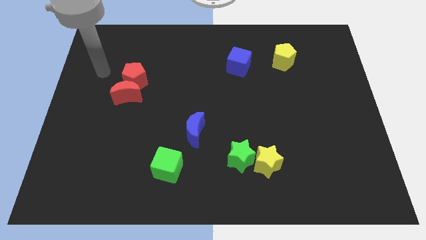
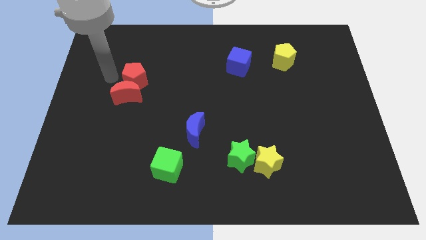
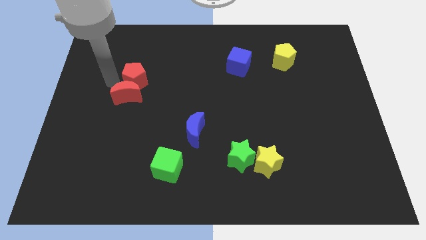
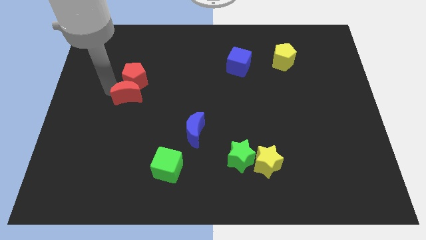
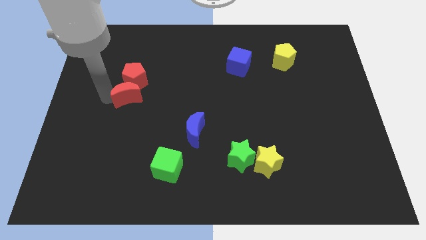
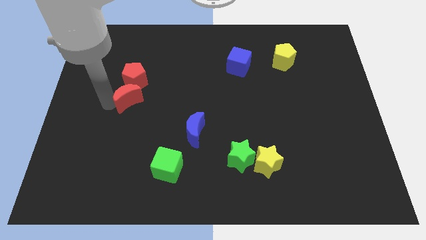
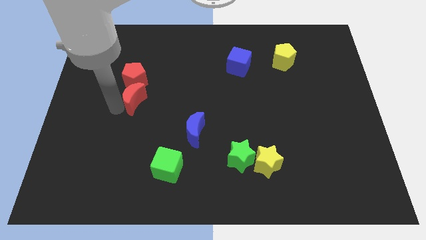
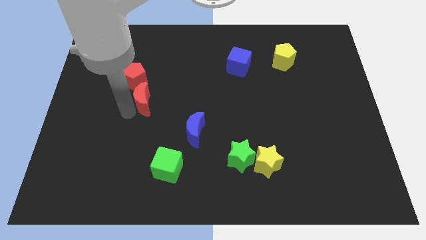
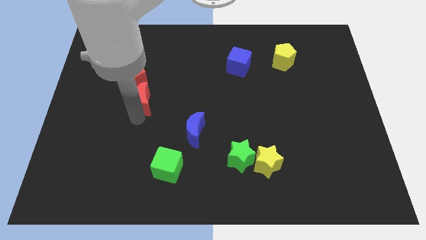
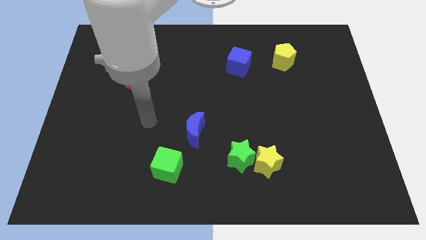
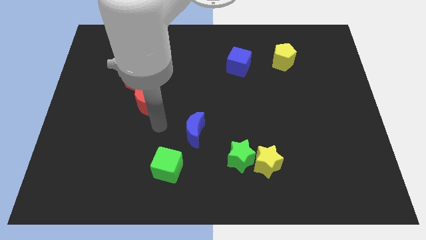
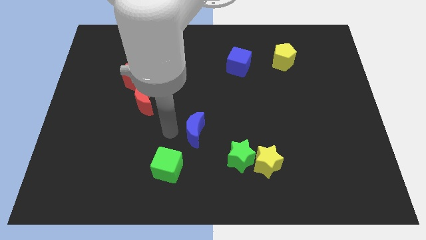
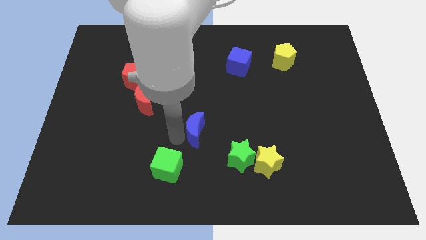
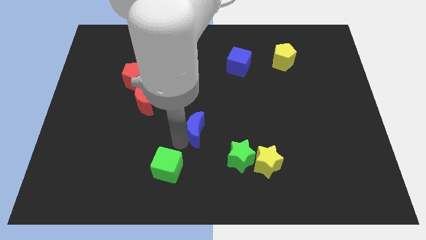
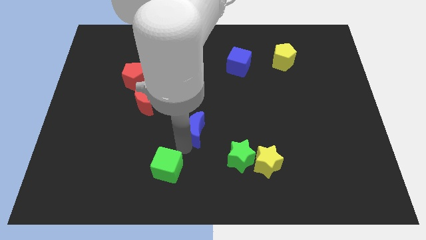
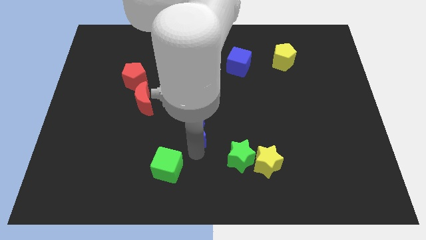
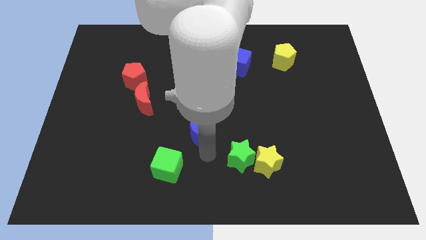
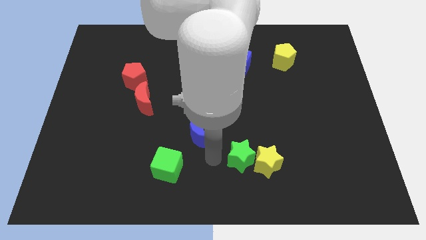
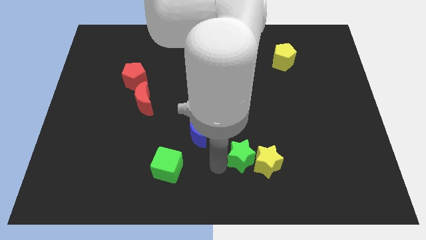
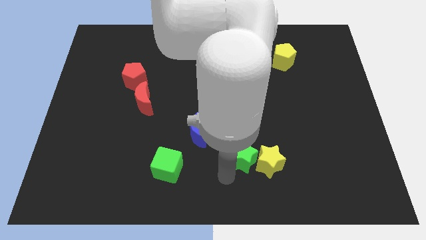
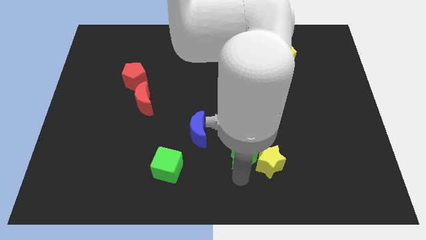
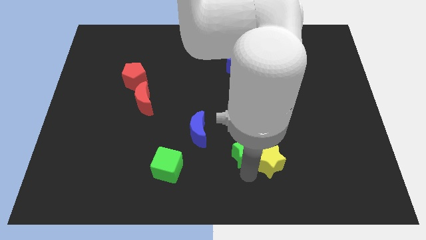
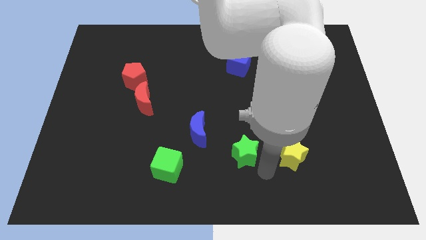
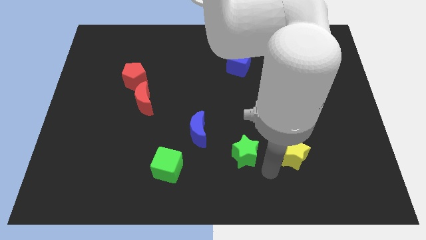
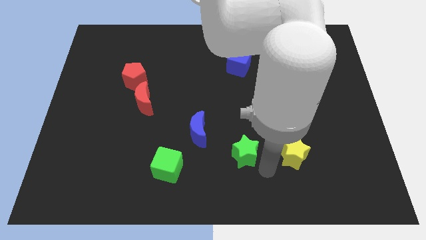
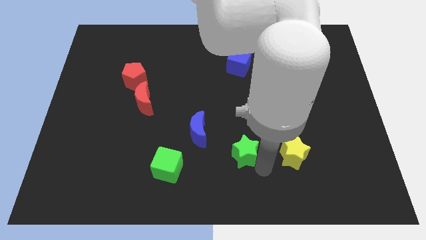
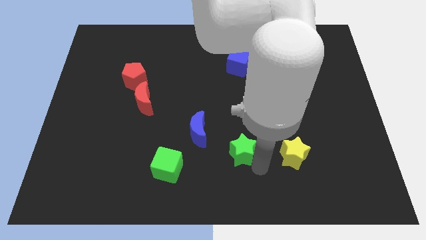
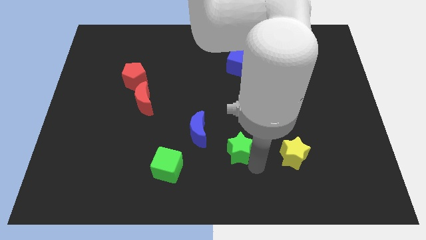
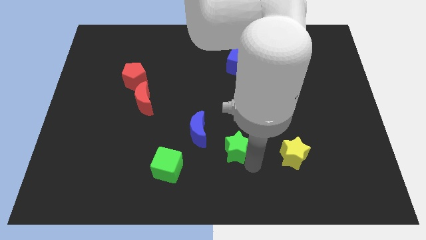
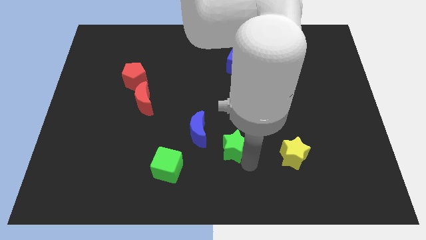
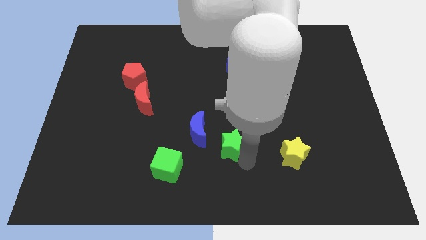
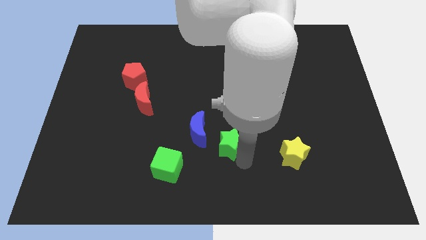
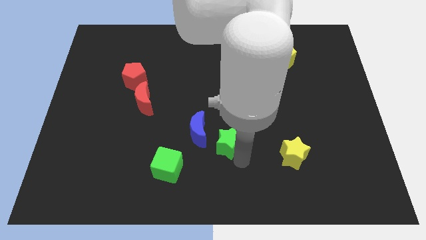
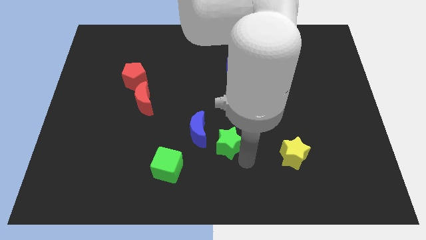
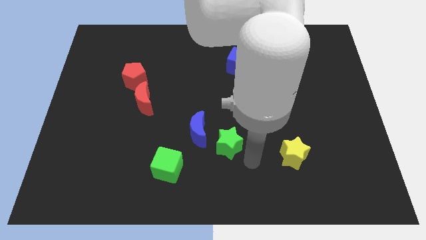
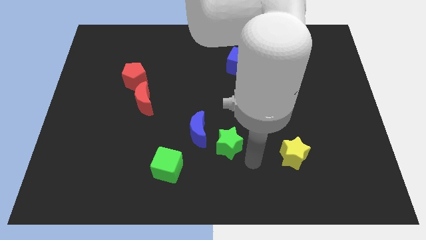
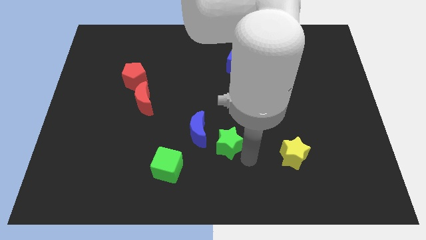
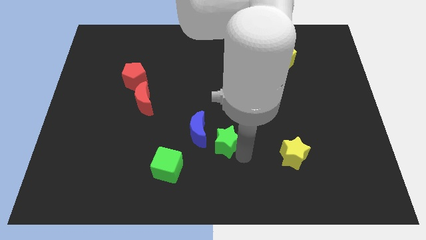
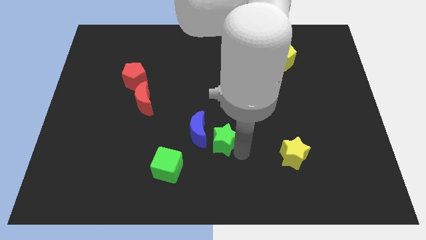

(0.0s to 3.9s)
slide the green star close to the blue moon

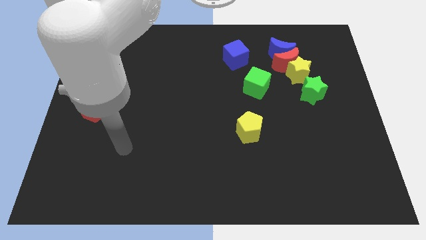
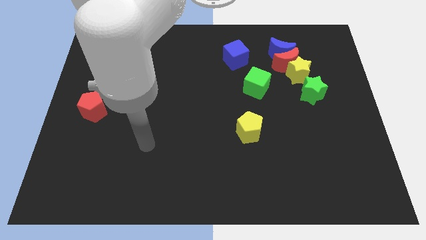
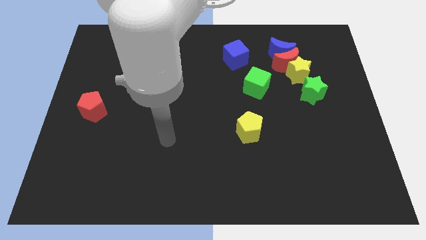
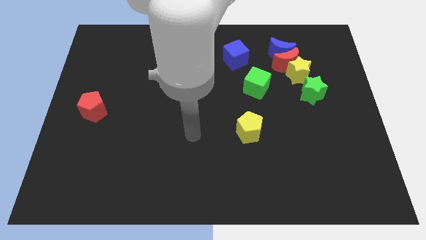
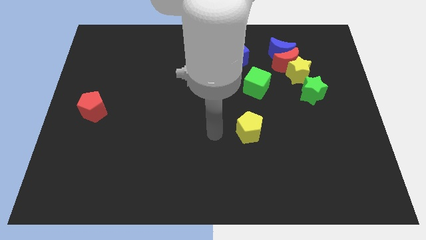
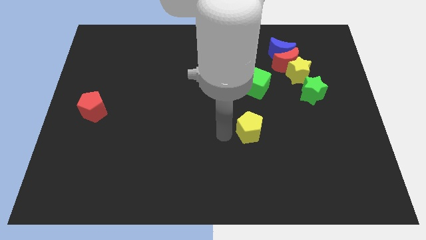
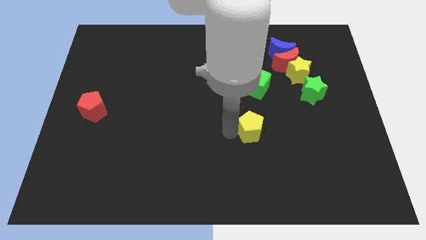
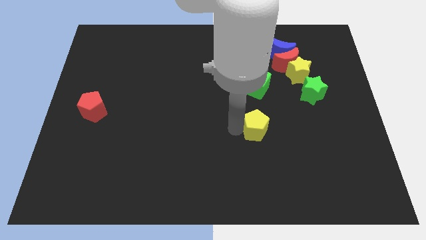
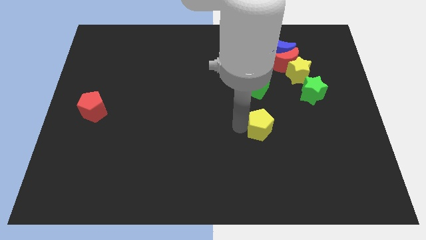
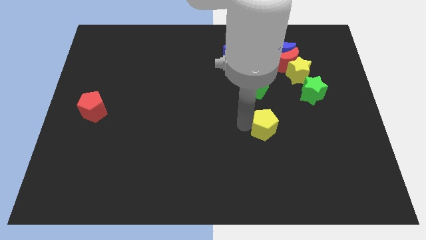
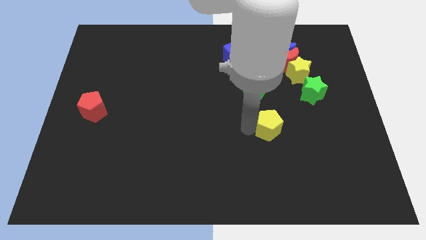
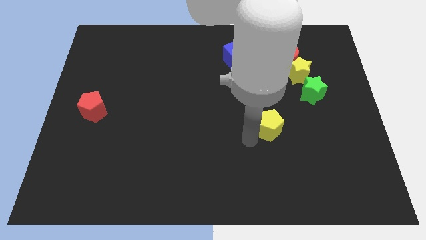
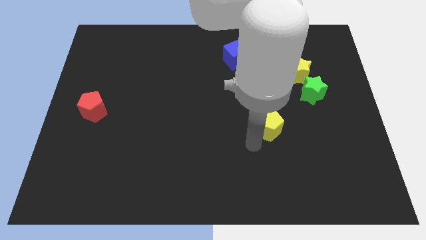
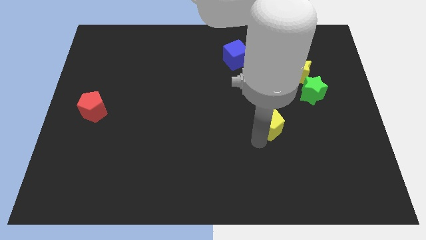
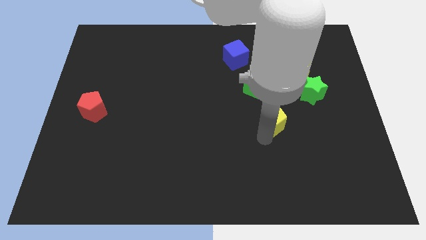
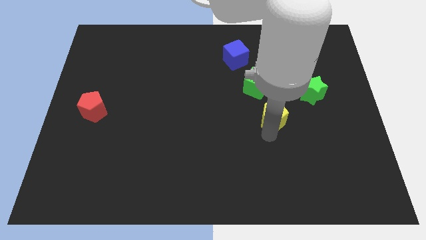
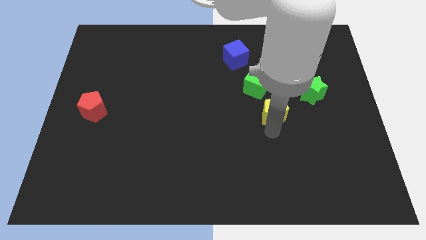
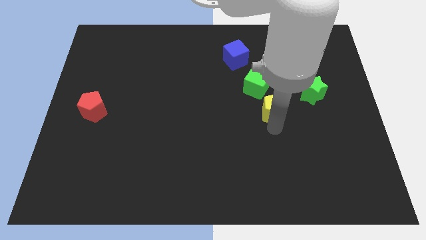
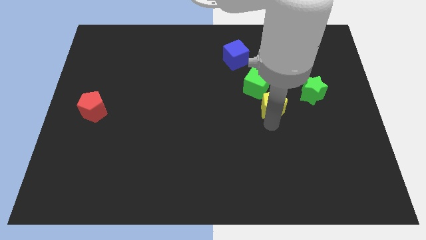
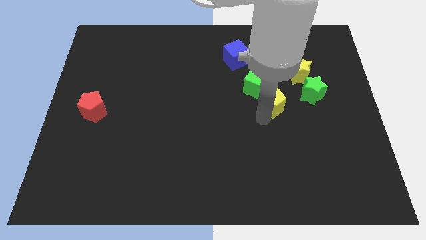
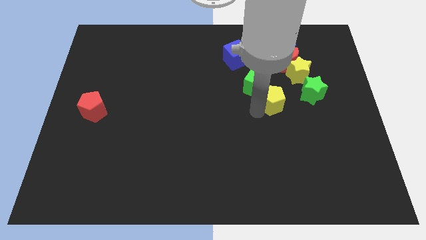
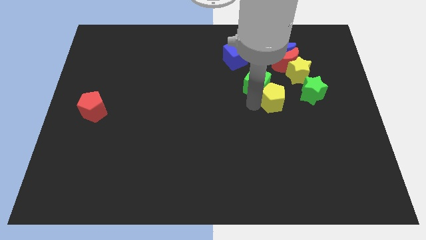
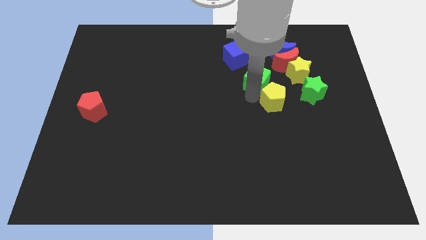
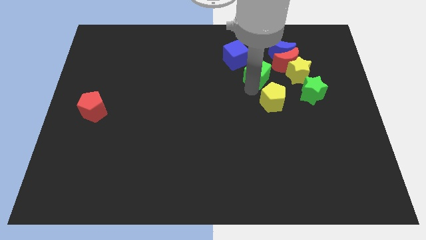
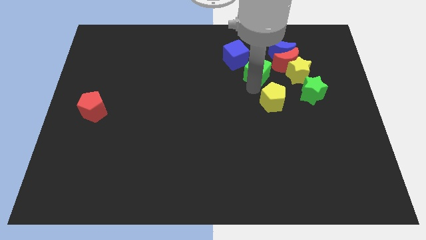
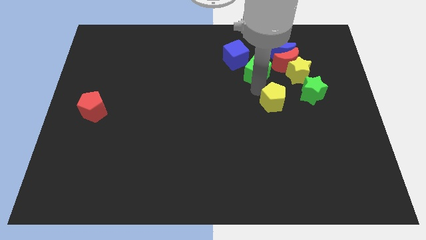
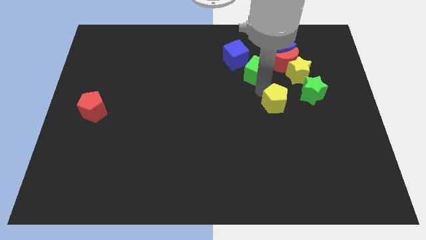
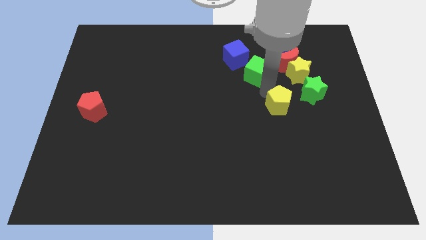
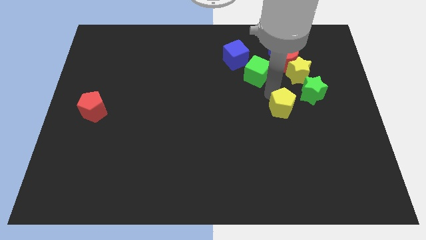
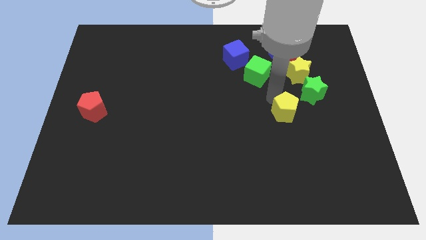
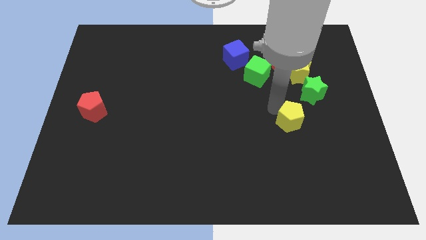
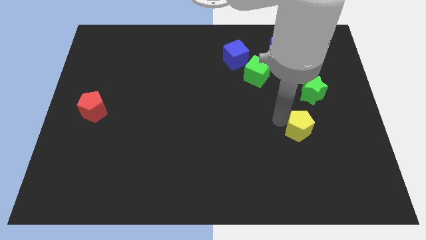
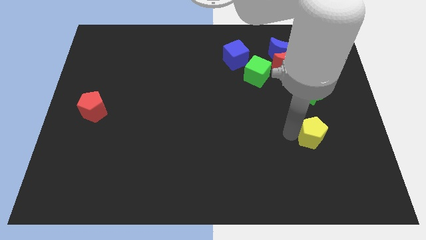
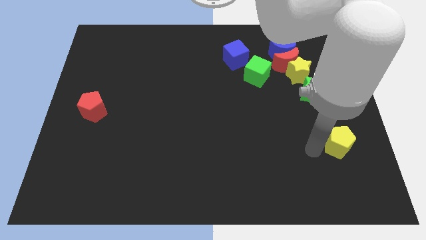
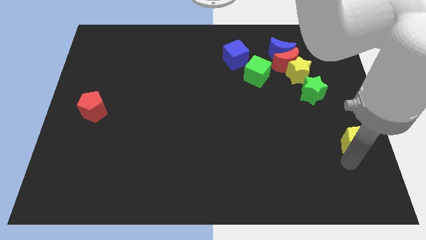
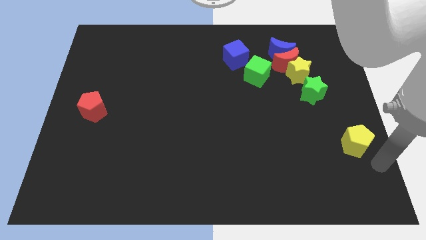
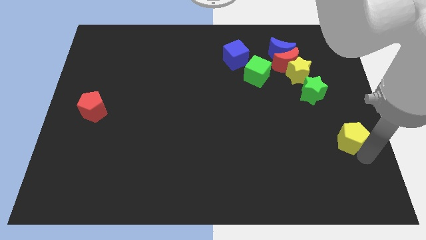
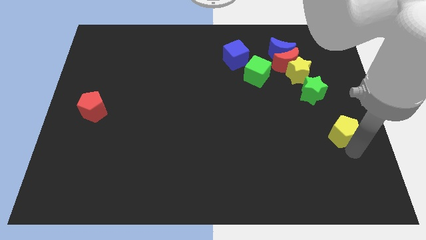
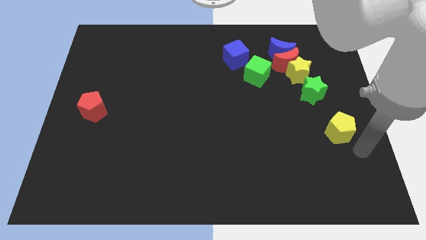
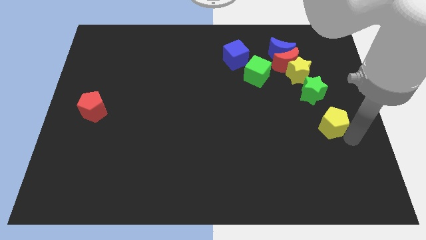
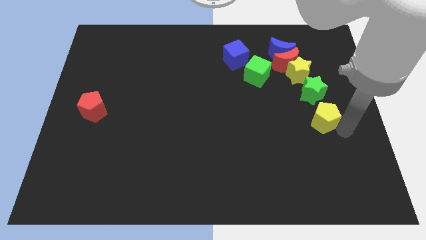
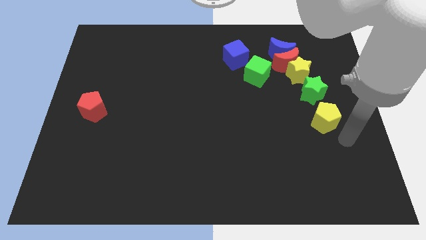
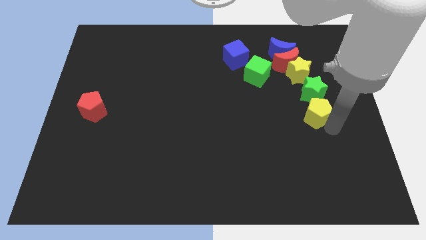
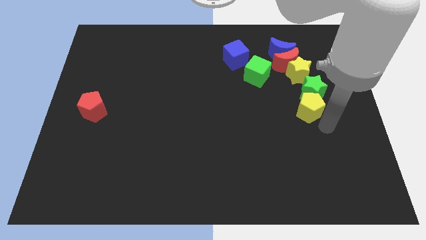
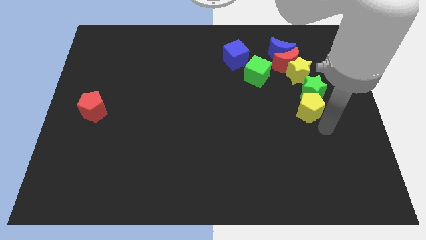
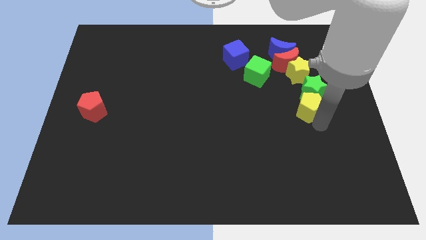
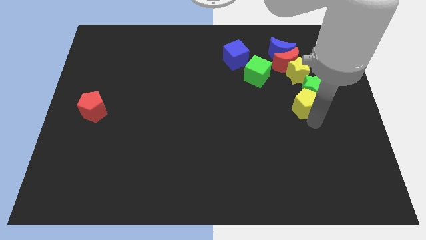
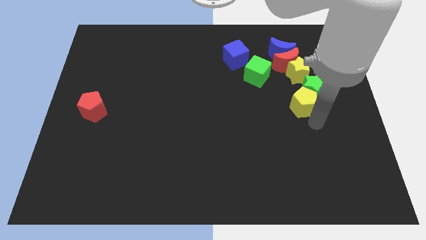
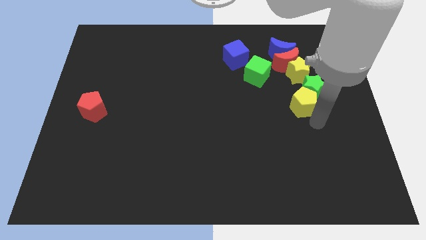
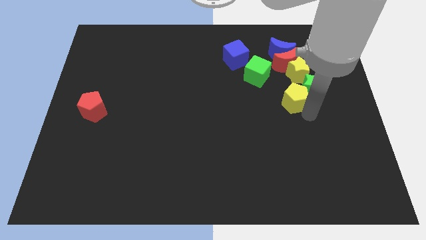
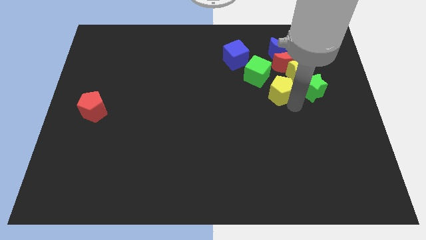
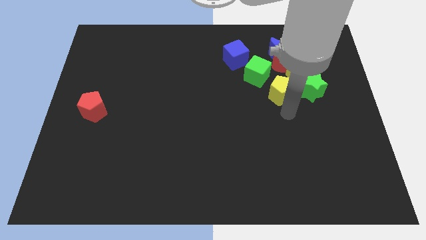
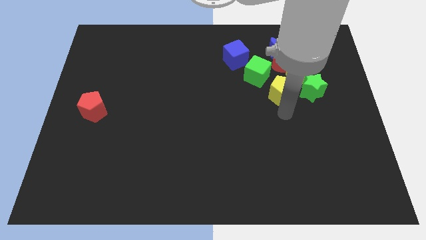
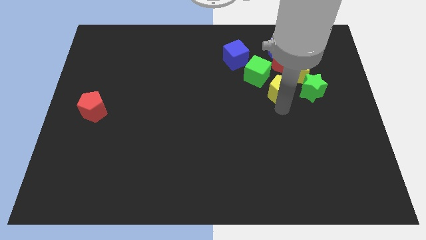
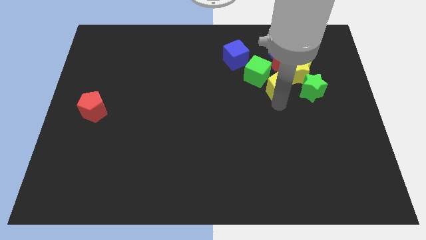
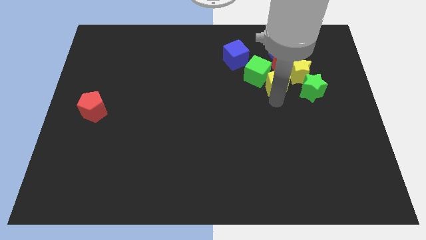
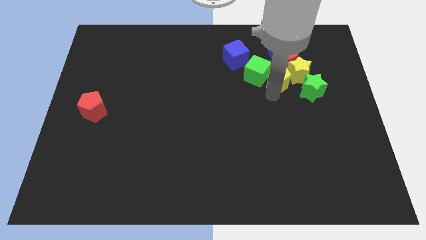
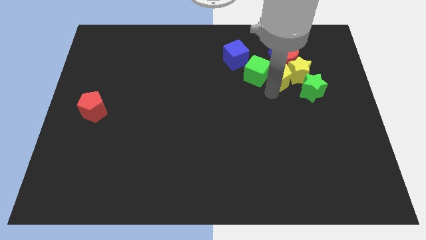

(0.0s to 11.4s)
push the yellow pentagon towards the red moon
